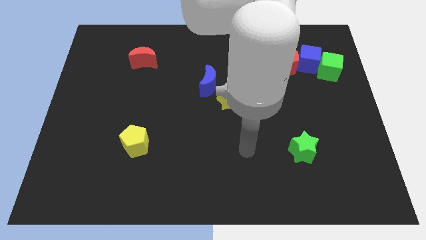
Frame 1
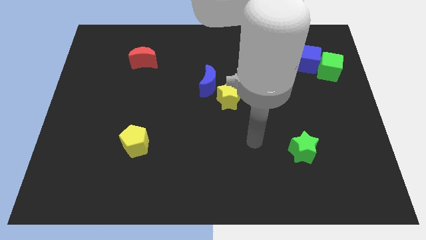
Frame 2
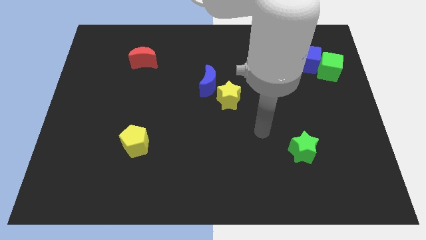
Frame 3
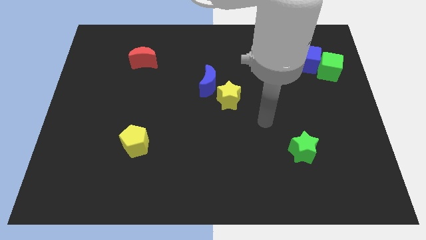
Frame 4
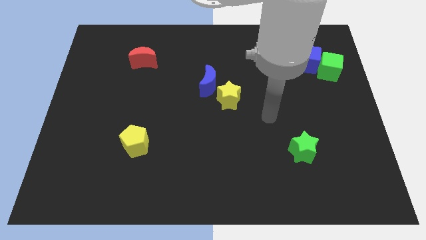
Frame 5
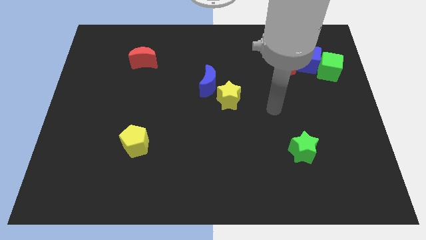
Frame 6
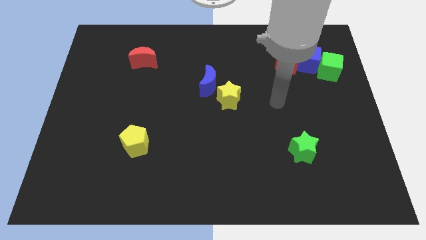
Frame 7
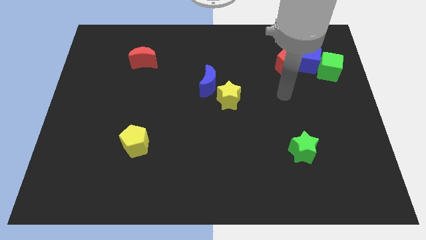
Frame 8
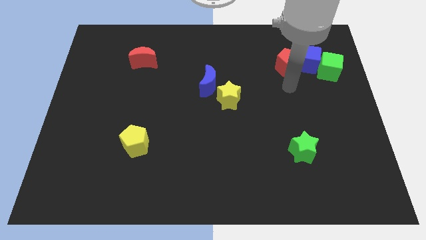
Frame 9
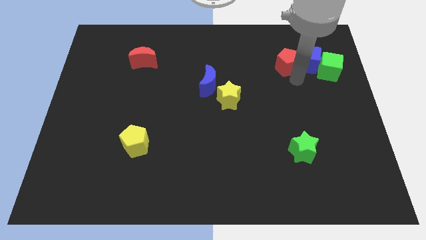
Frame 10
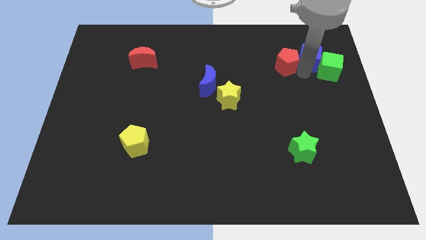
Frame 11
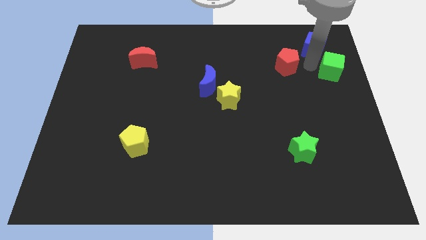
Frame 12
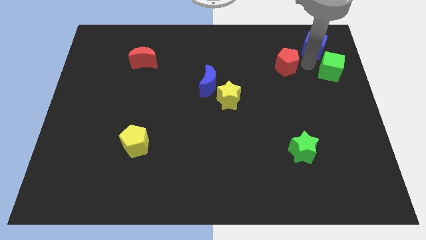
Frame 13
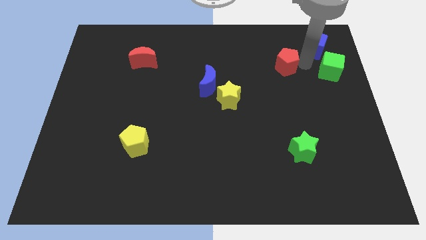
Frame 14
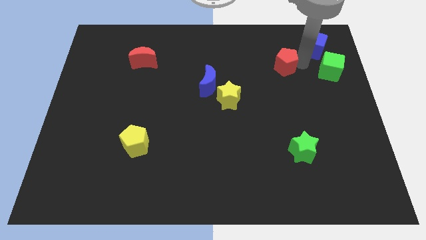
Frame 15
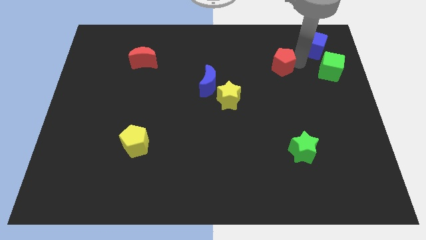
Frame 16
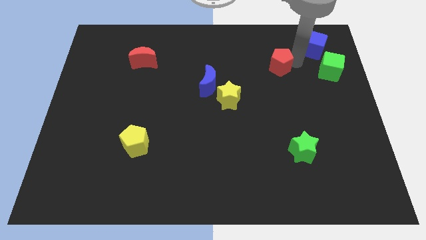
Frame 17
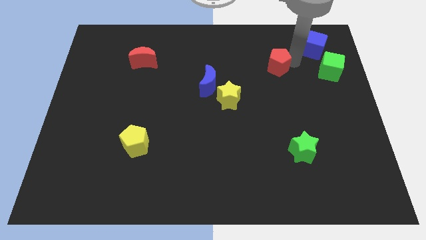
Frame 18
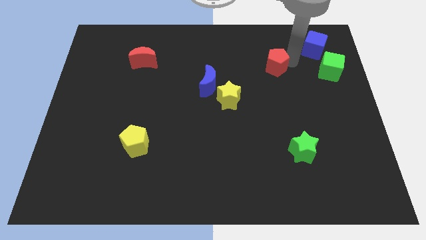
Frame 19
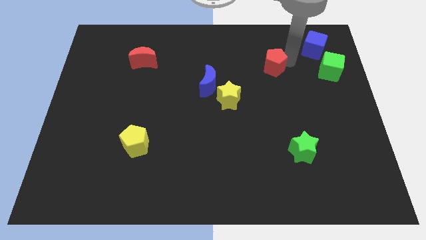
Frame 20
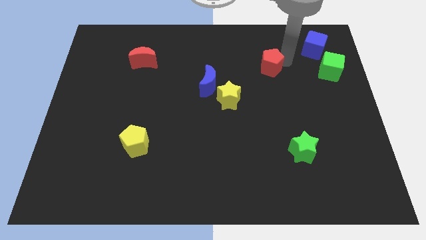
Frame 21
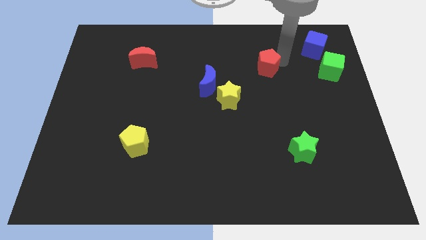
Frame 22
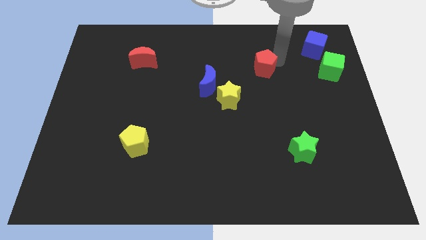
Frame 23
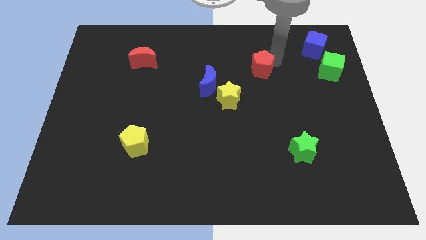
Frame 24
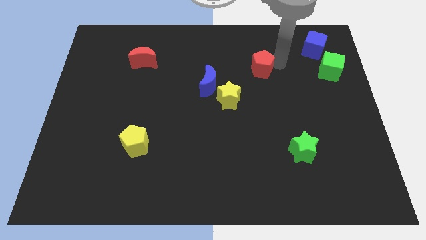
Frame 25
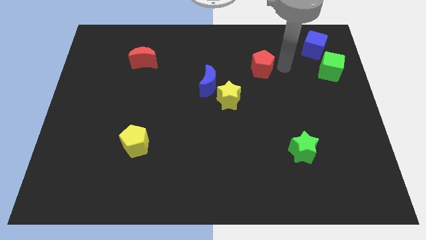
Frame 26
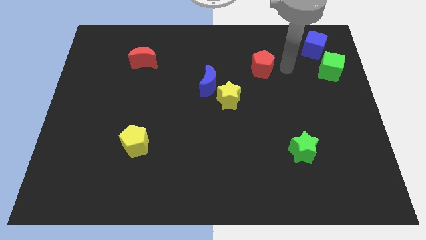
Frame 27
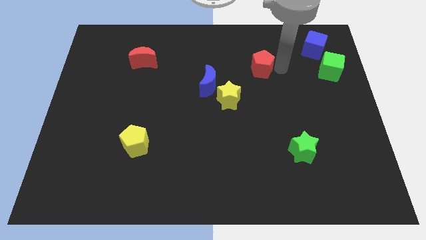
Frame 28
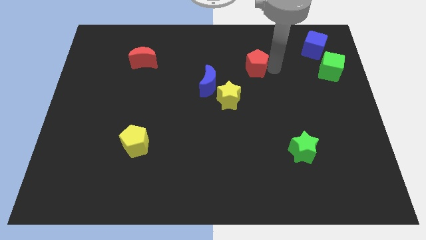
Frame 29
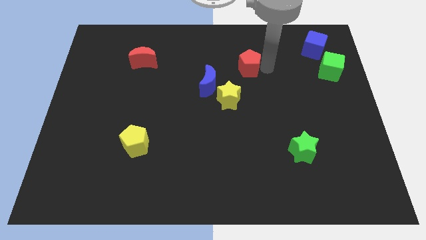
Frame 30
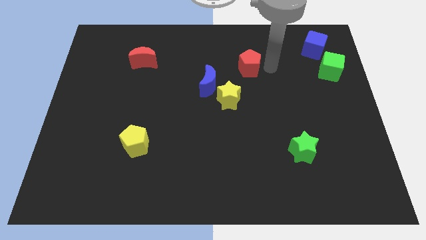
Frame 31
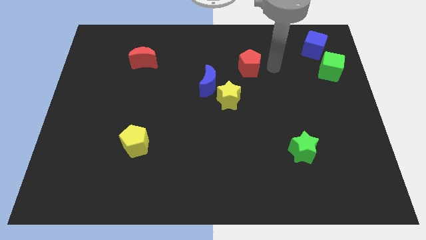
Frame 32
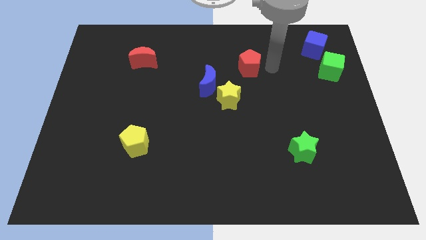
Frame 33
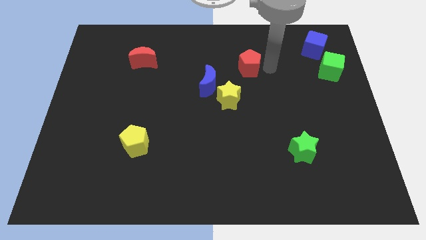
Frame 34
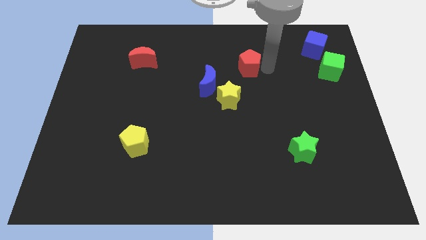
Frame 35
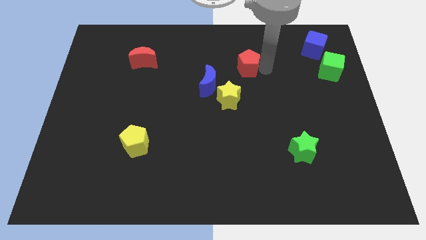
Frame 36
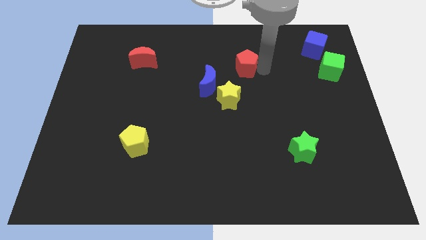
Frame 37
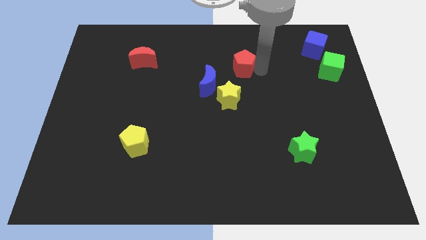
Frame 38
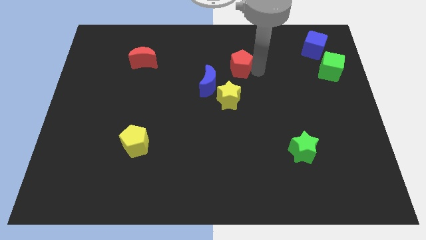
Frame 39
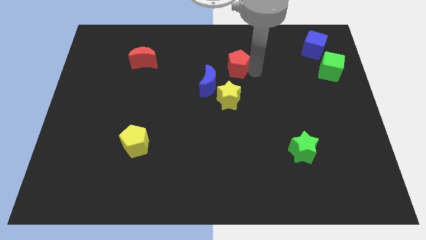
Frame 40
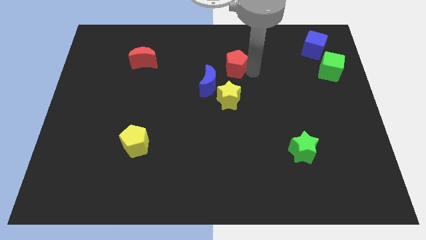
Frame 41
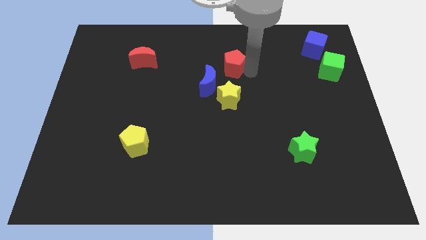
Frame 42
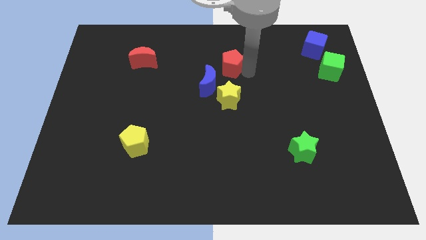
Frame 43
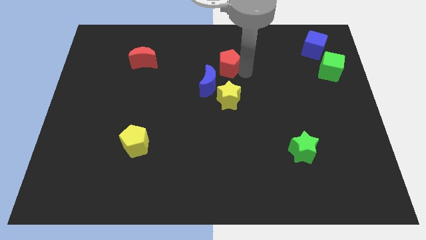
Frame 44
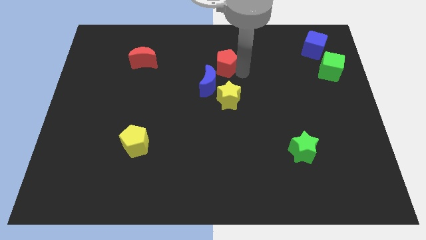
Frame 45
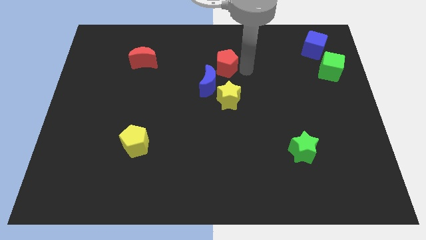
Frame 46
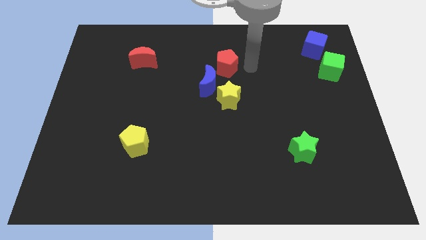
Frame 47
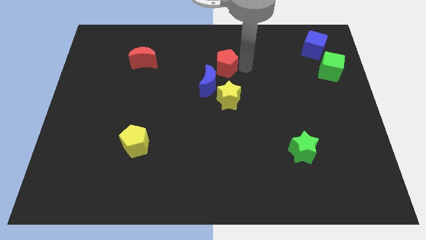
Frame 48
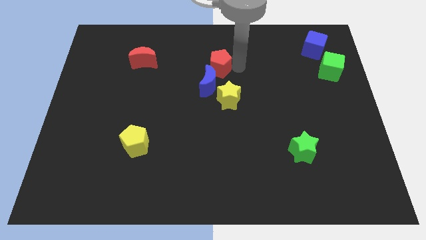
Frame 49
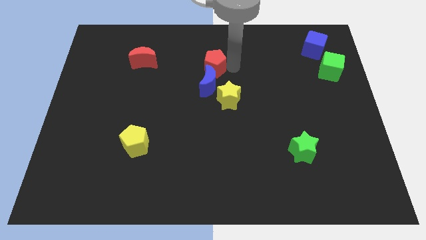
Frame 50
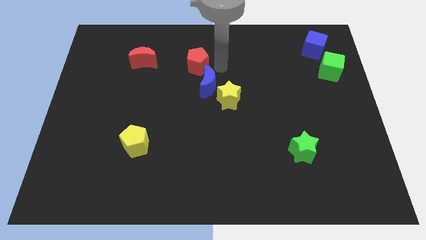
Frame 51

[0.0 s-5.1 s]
move the red pentagon to the left

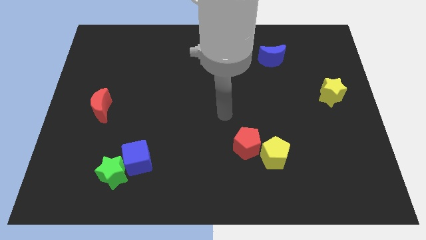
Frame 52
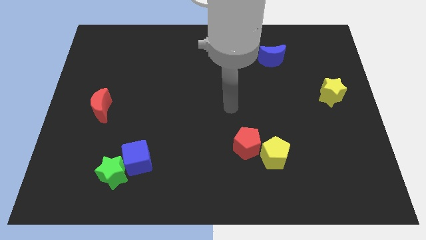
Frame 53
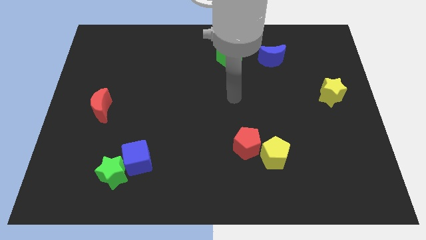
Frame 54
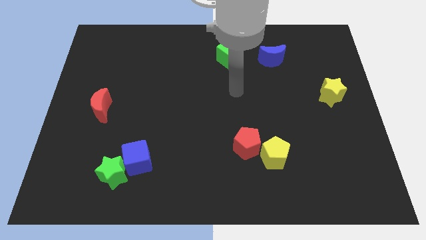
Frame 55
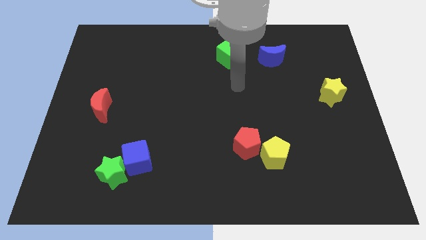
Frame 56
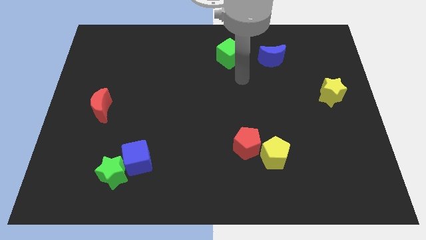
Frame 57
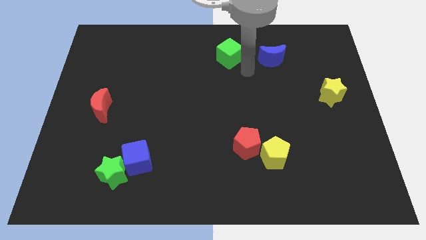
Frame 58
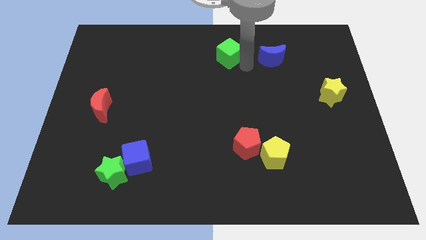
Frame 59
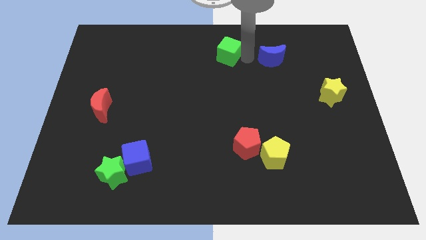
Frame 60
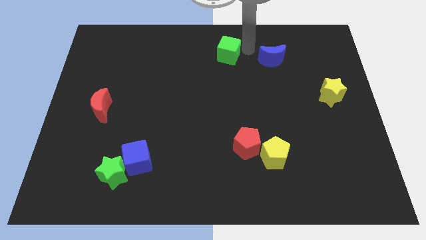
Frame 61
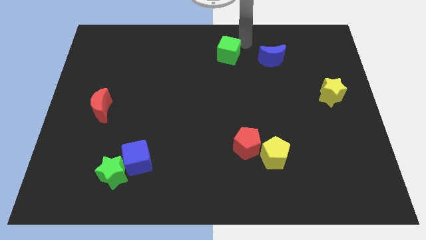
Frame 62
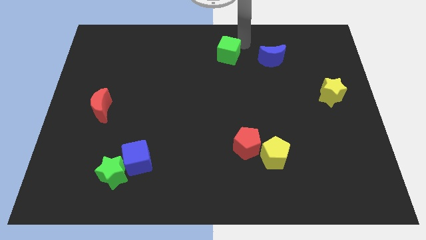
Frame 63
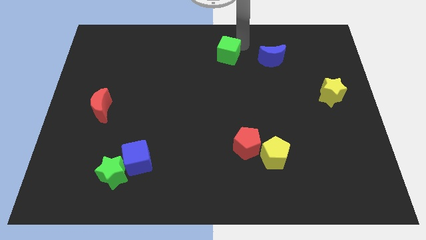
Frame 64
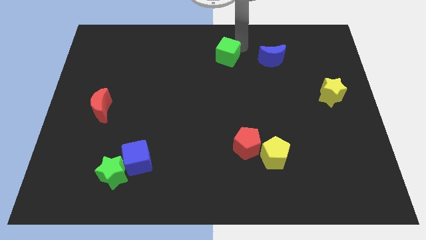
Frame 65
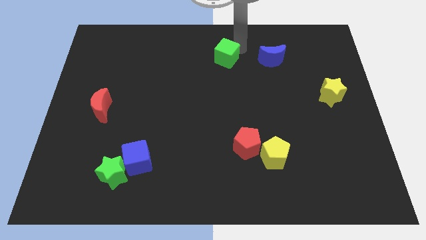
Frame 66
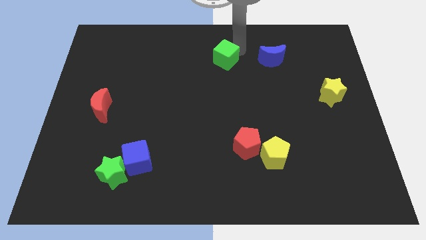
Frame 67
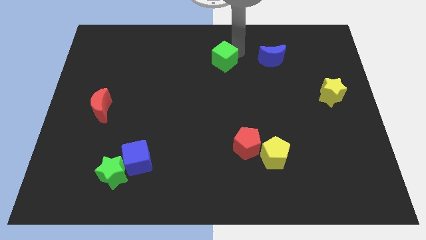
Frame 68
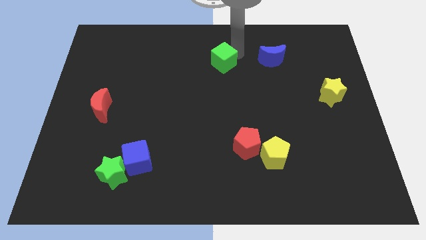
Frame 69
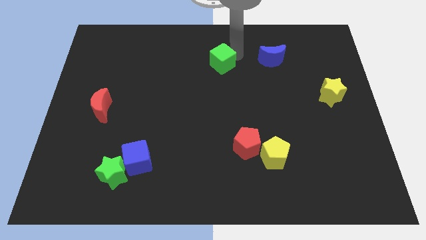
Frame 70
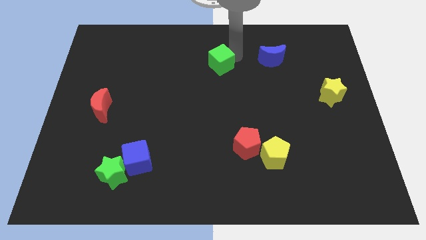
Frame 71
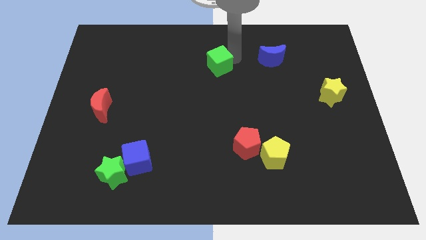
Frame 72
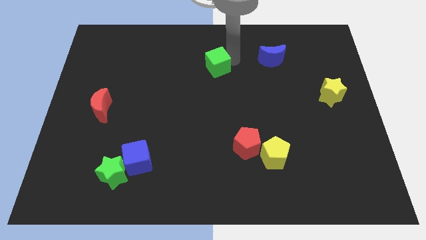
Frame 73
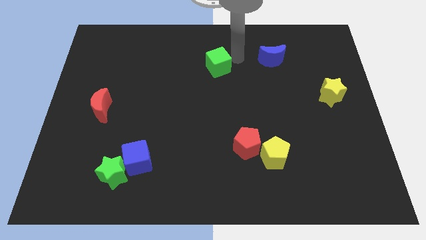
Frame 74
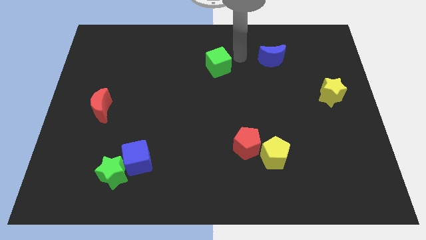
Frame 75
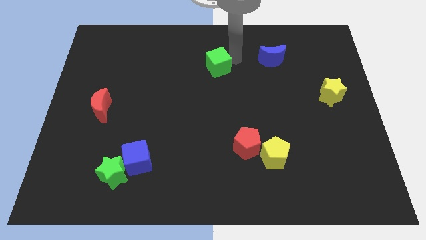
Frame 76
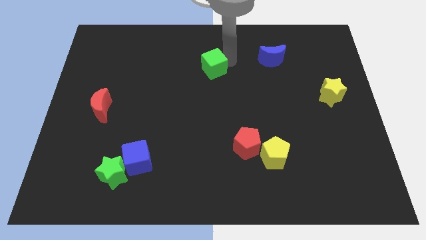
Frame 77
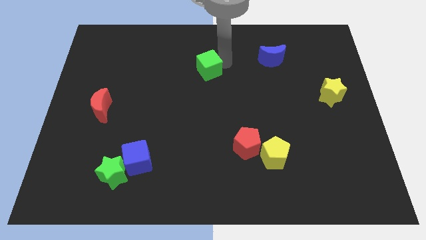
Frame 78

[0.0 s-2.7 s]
slightly push the green cube diagonally down and to the left

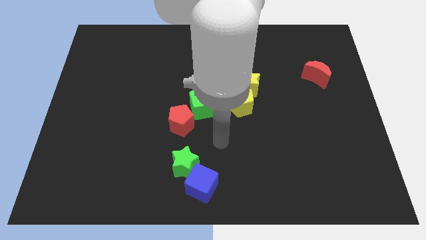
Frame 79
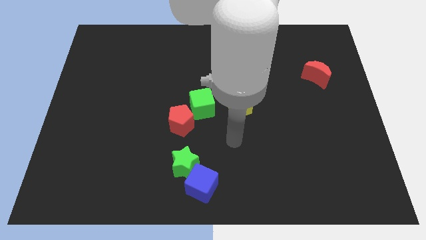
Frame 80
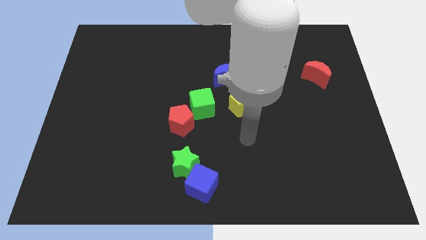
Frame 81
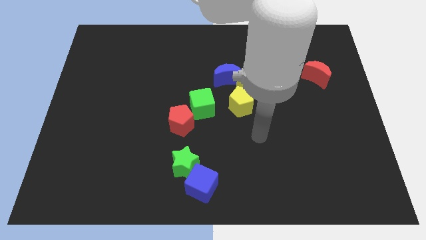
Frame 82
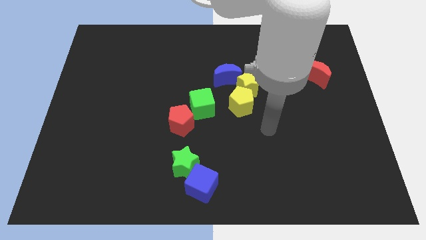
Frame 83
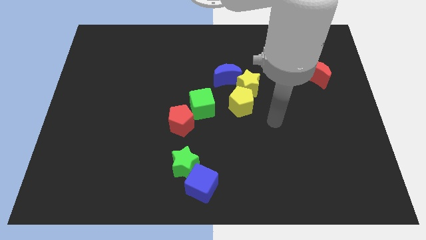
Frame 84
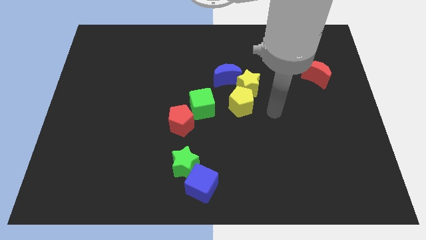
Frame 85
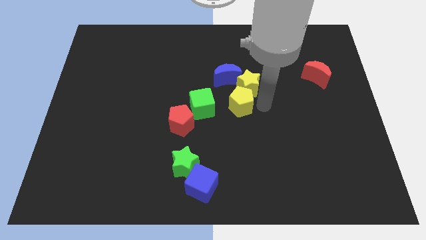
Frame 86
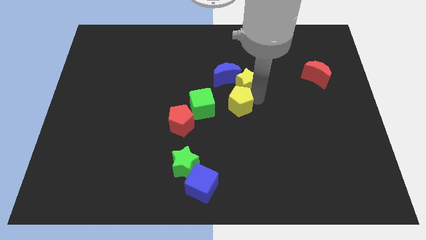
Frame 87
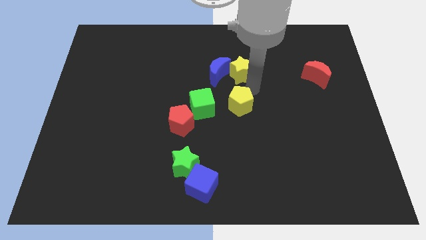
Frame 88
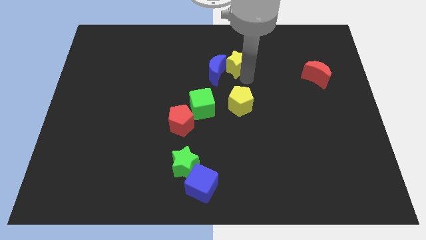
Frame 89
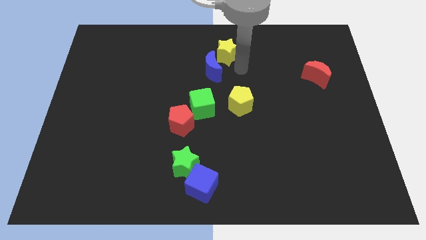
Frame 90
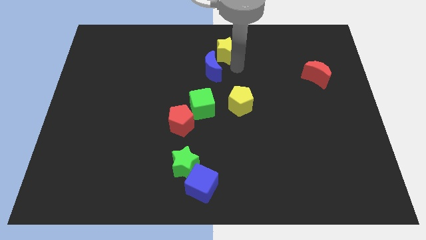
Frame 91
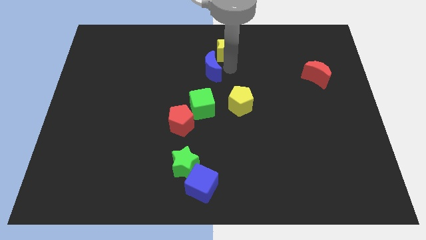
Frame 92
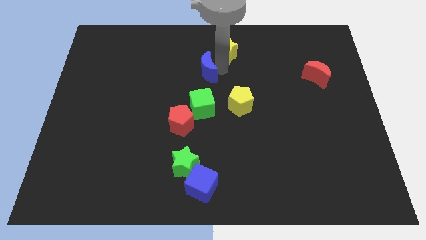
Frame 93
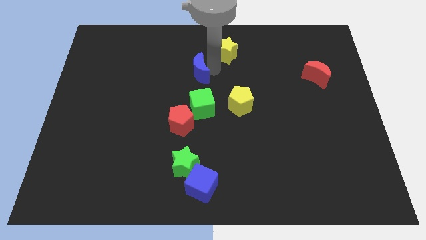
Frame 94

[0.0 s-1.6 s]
push the blue moon a bit to the left
